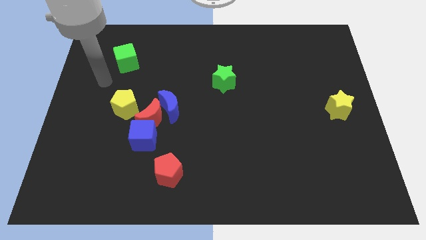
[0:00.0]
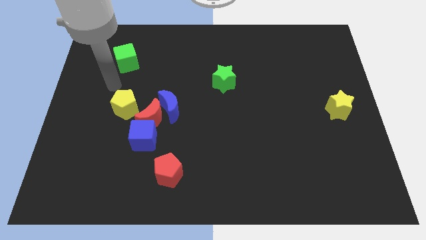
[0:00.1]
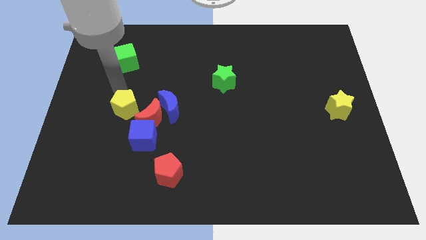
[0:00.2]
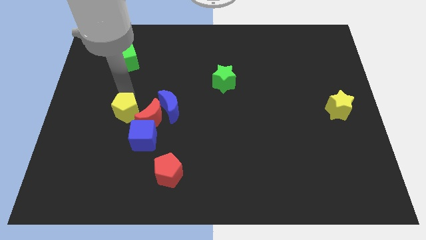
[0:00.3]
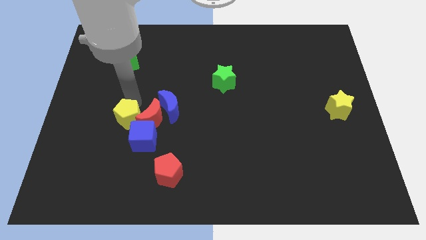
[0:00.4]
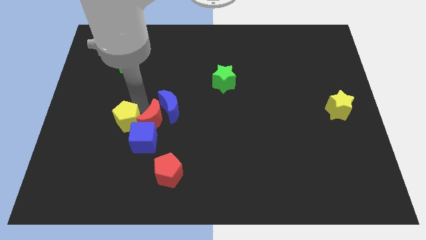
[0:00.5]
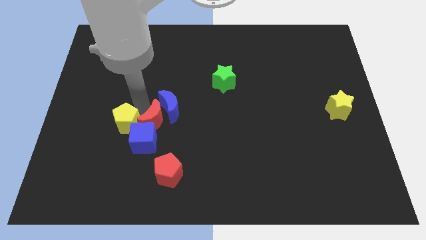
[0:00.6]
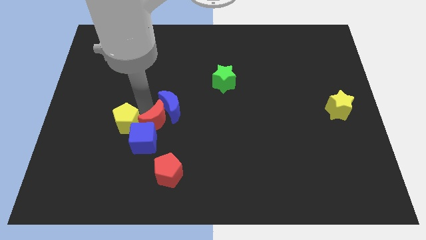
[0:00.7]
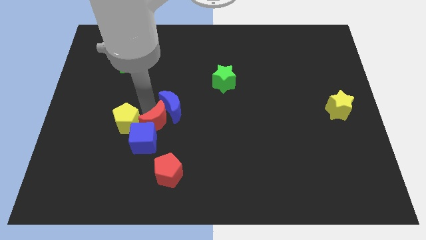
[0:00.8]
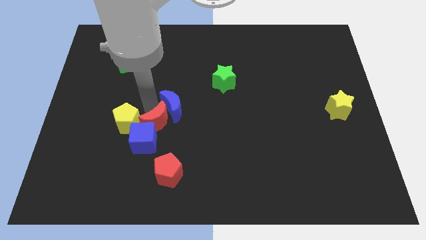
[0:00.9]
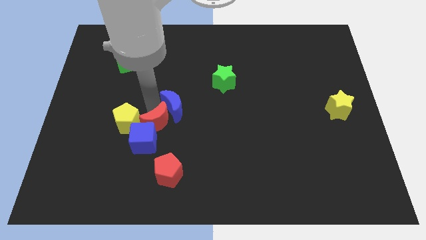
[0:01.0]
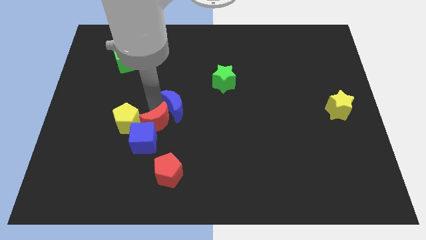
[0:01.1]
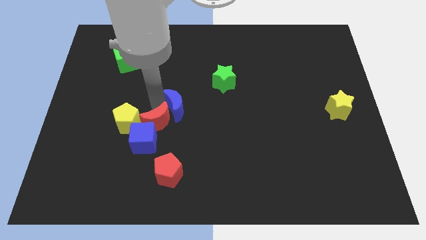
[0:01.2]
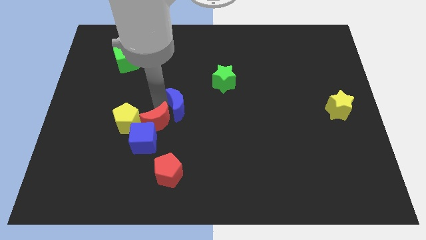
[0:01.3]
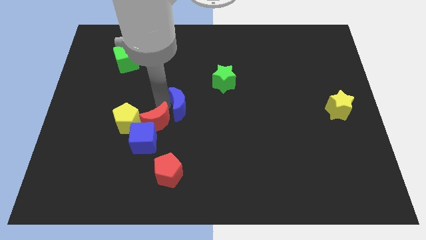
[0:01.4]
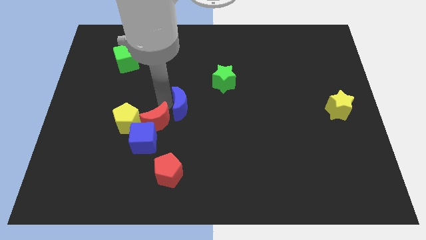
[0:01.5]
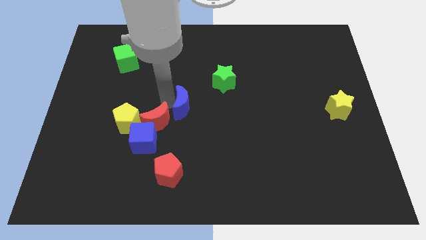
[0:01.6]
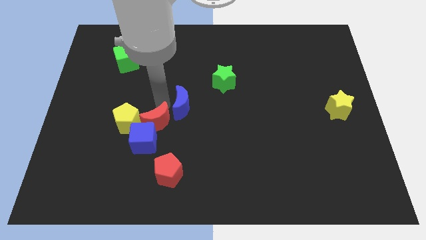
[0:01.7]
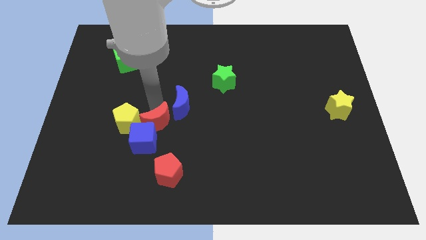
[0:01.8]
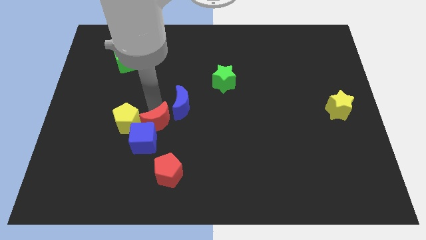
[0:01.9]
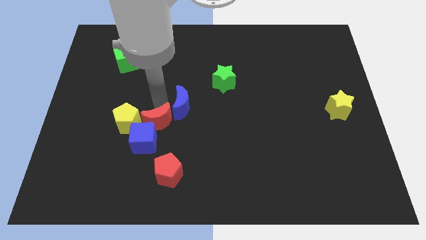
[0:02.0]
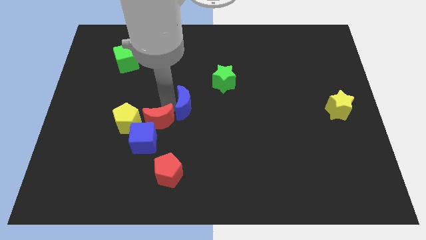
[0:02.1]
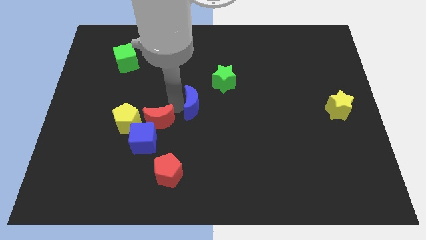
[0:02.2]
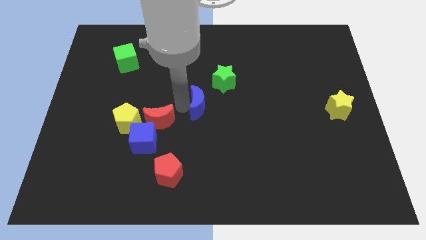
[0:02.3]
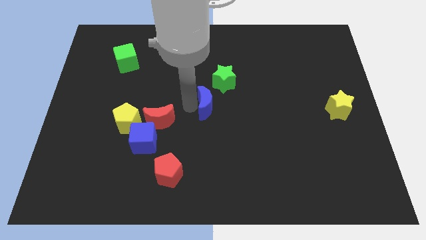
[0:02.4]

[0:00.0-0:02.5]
push the blue moon to the right somewhat

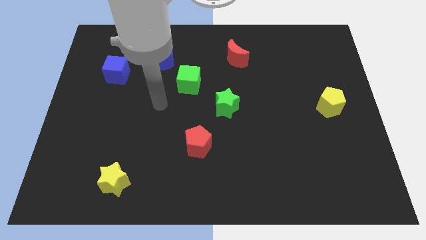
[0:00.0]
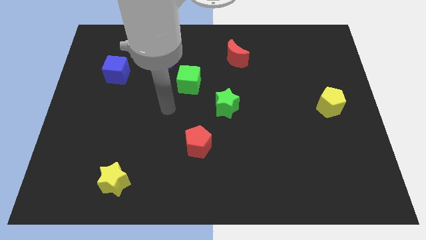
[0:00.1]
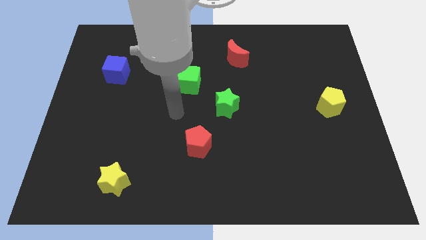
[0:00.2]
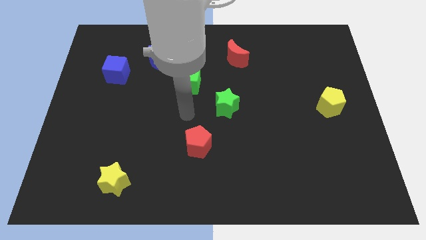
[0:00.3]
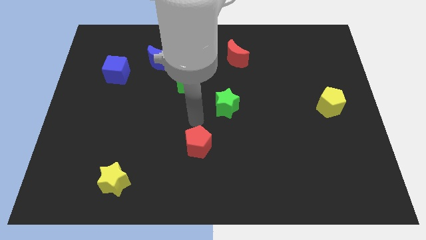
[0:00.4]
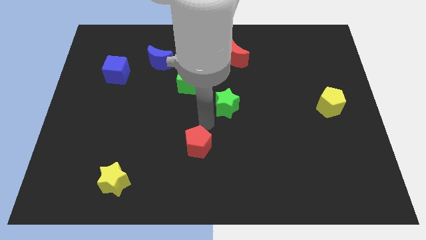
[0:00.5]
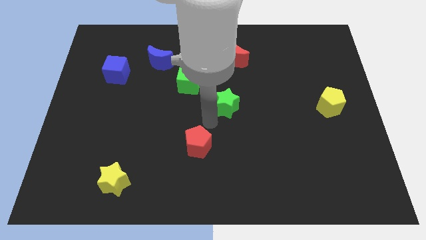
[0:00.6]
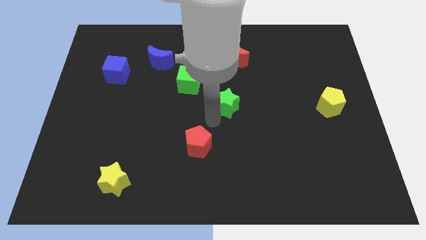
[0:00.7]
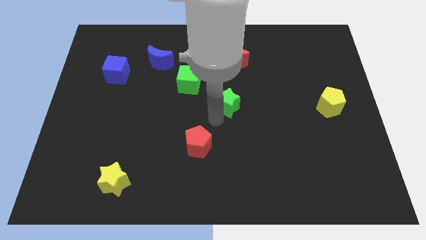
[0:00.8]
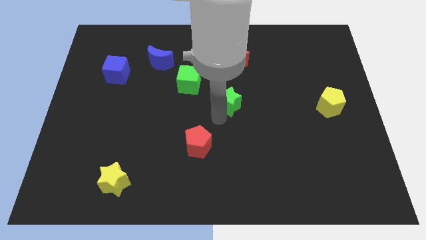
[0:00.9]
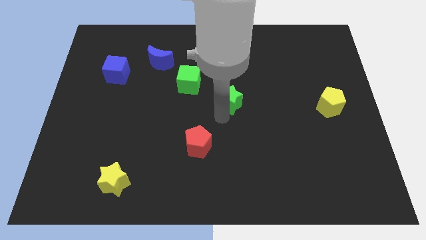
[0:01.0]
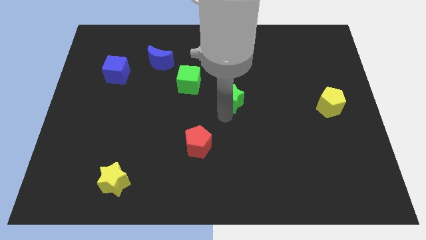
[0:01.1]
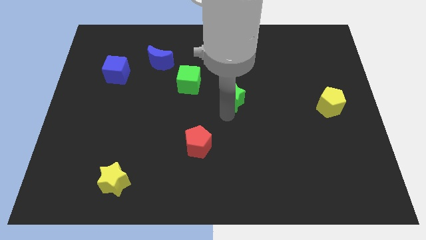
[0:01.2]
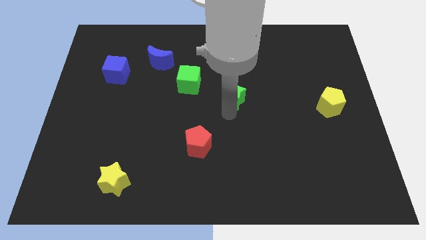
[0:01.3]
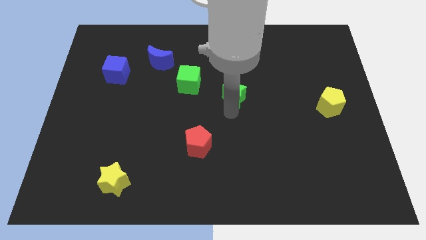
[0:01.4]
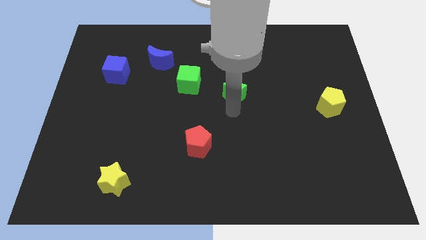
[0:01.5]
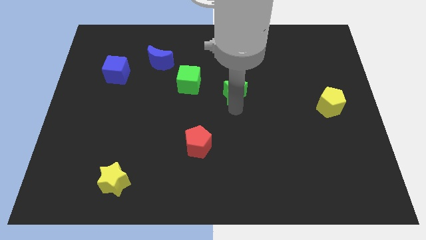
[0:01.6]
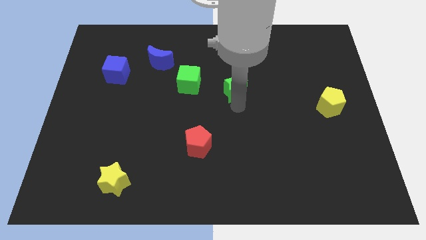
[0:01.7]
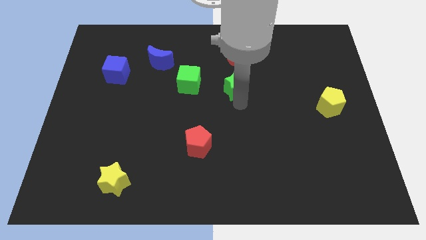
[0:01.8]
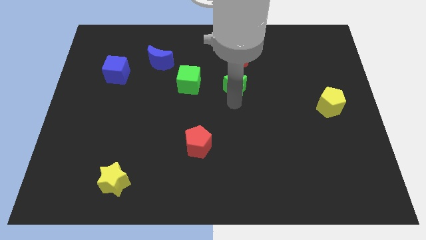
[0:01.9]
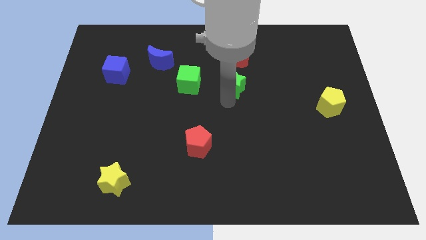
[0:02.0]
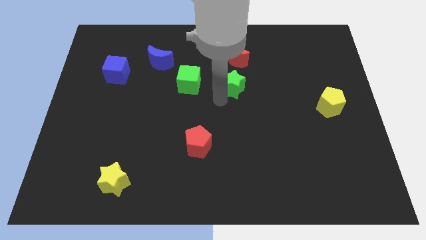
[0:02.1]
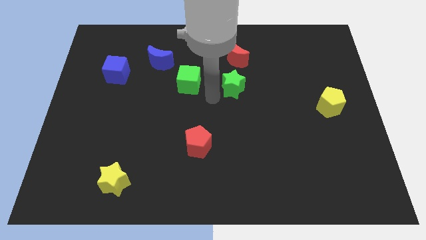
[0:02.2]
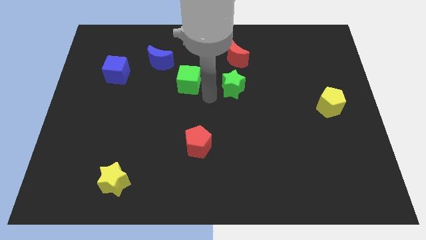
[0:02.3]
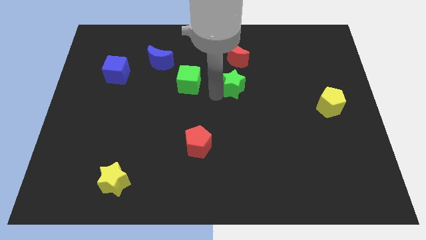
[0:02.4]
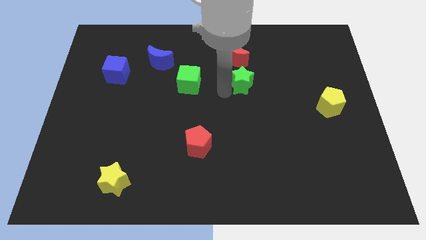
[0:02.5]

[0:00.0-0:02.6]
move the green star up and right a little bit

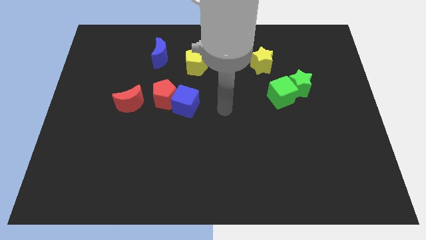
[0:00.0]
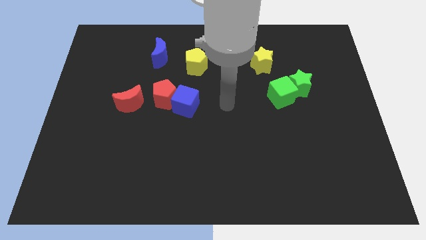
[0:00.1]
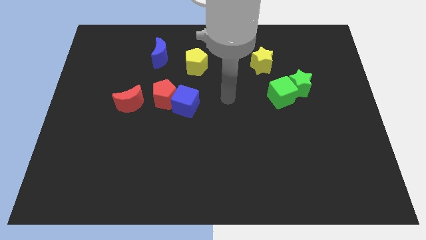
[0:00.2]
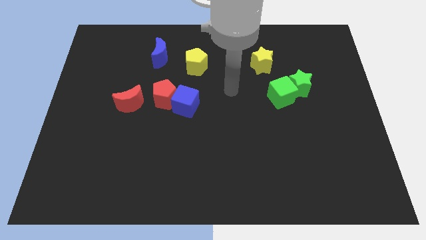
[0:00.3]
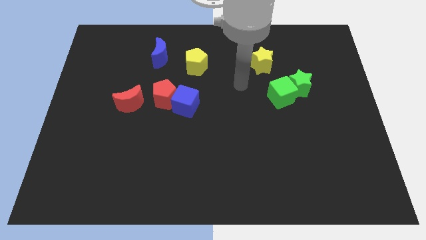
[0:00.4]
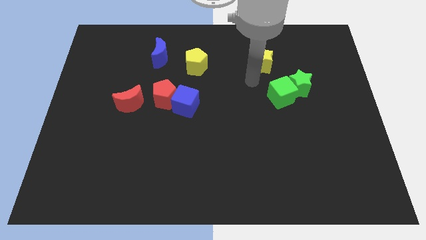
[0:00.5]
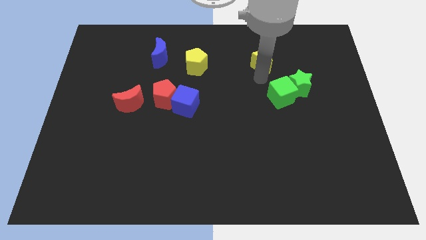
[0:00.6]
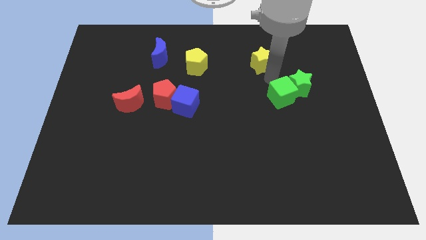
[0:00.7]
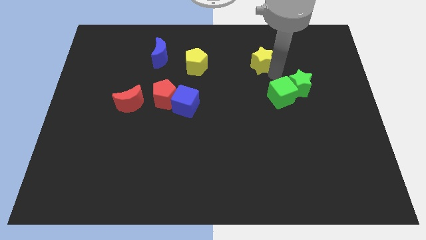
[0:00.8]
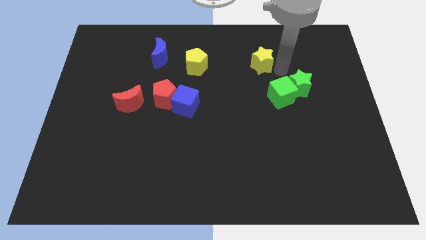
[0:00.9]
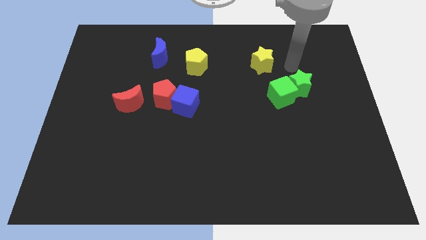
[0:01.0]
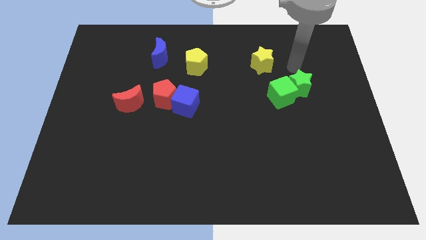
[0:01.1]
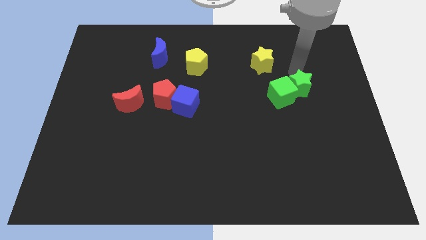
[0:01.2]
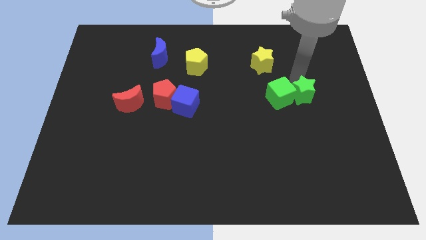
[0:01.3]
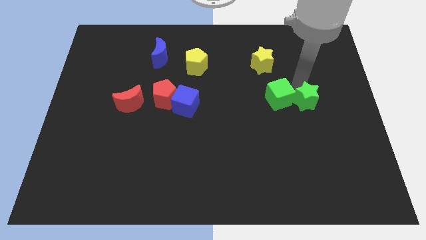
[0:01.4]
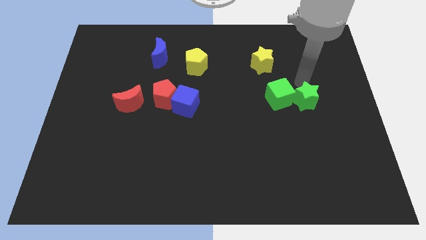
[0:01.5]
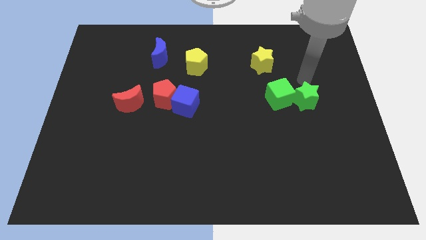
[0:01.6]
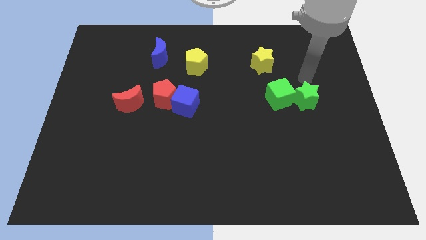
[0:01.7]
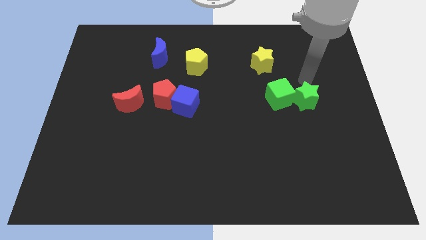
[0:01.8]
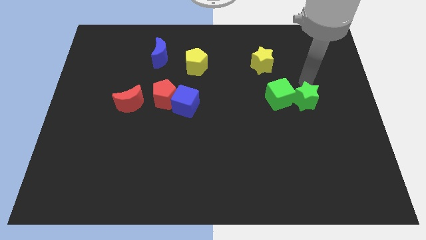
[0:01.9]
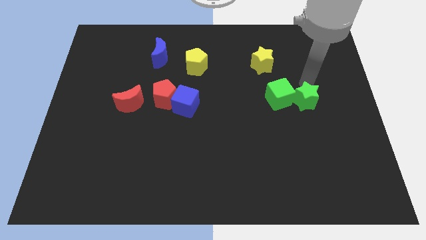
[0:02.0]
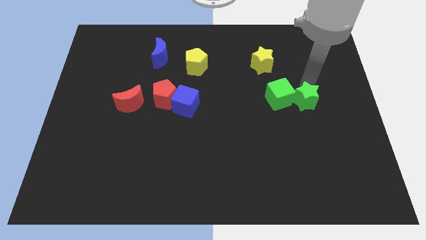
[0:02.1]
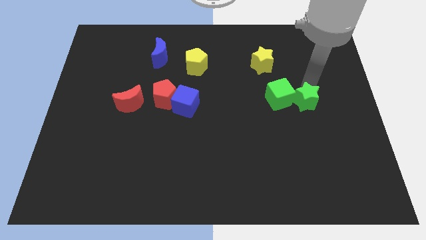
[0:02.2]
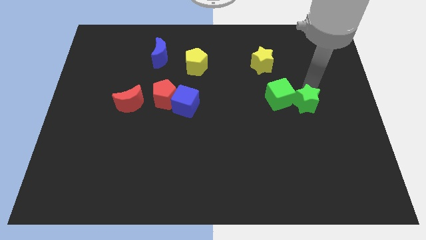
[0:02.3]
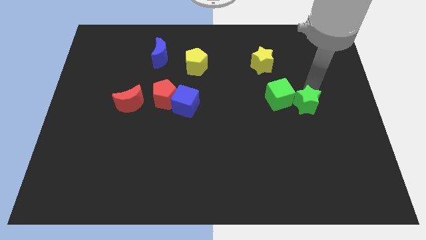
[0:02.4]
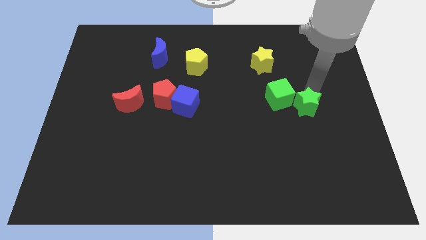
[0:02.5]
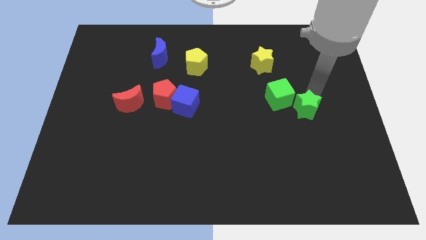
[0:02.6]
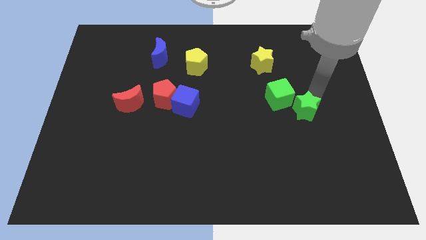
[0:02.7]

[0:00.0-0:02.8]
move the green star downwards a bit

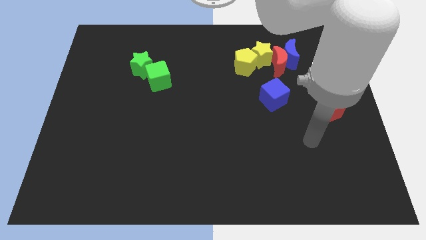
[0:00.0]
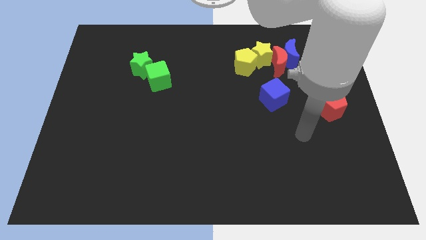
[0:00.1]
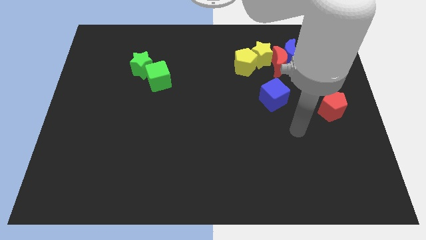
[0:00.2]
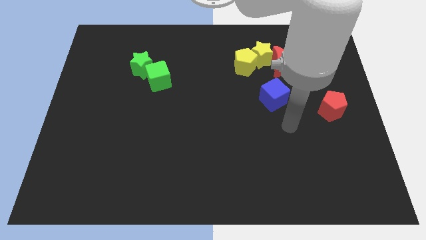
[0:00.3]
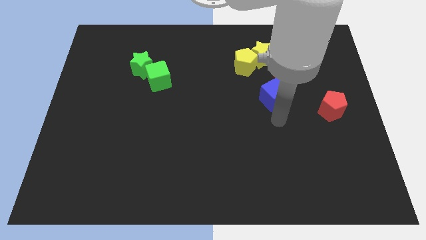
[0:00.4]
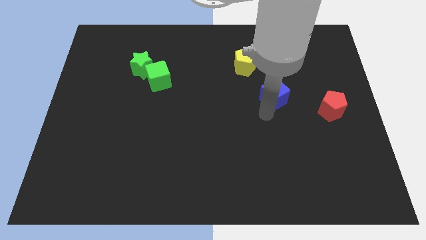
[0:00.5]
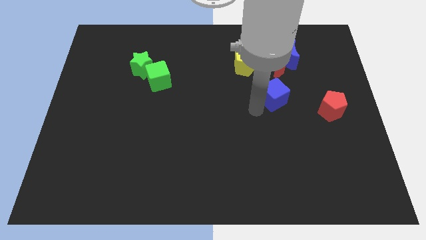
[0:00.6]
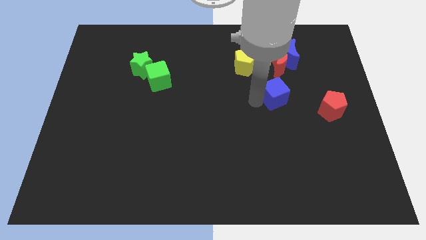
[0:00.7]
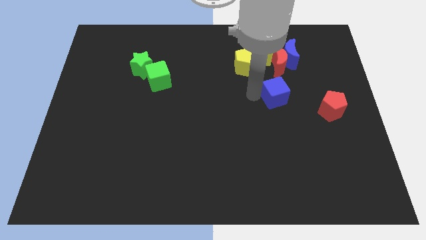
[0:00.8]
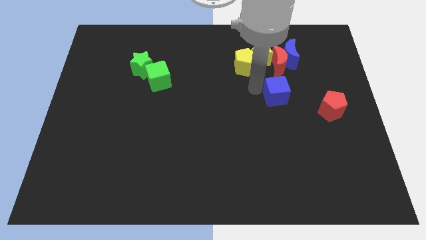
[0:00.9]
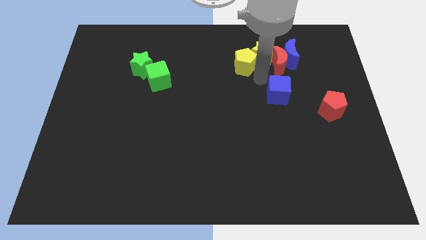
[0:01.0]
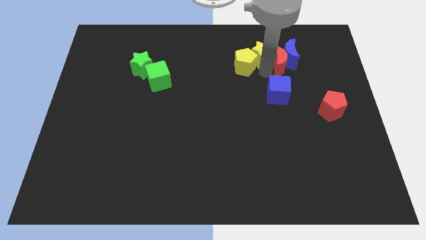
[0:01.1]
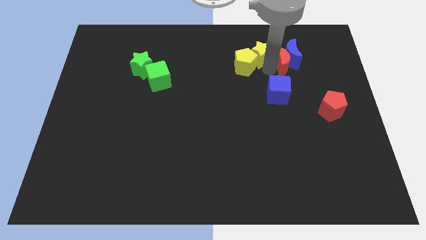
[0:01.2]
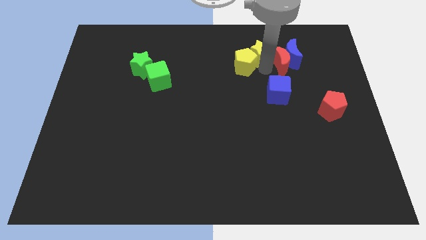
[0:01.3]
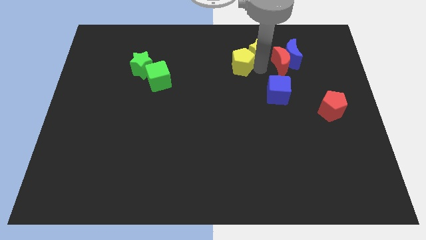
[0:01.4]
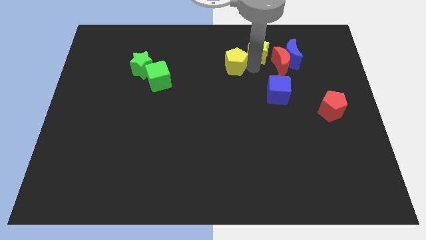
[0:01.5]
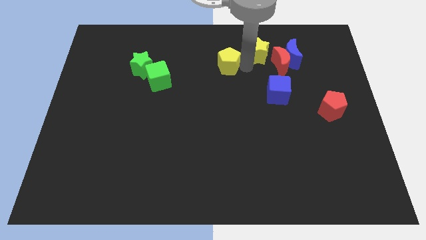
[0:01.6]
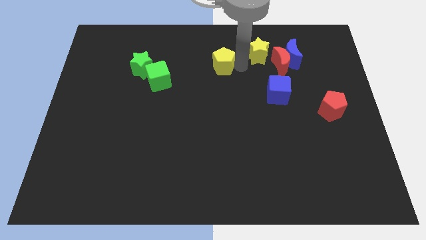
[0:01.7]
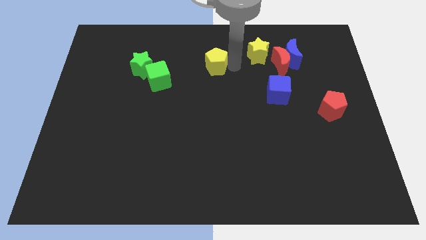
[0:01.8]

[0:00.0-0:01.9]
move the yellow pentagon somewhat left
